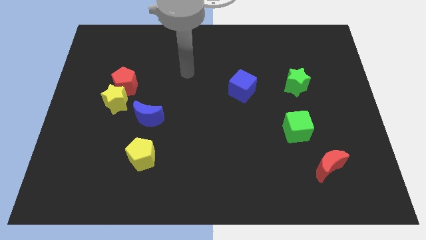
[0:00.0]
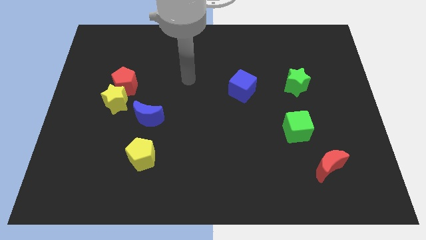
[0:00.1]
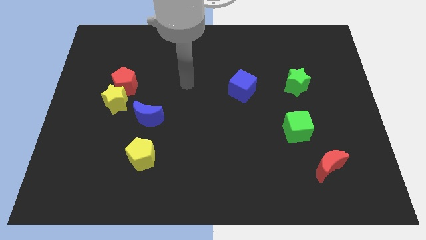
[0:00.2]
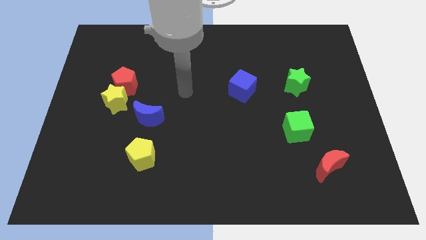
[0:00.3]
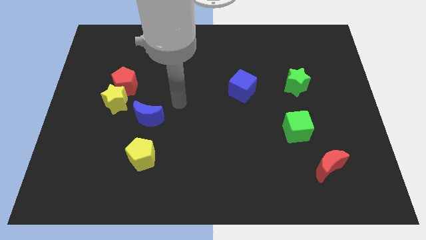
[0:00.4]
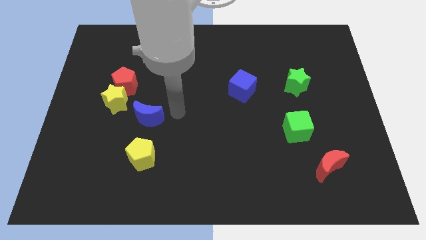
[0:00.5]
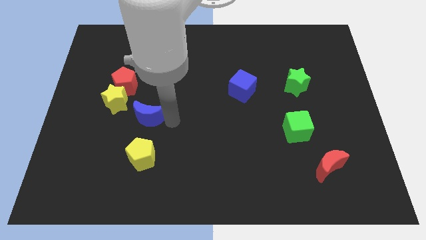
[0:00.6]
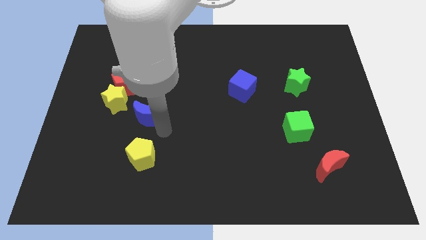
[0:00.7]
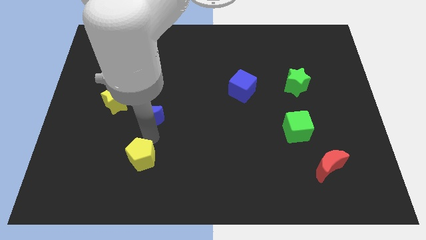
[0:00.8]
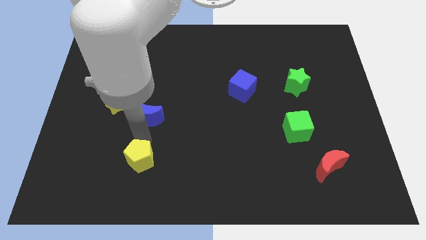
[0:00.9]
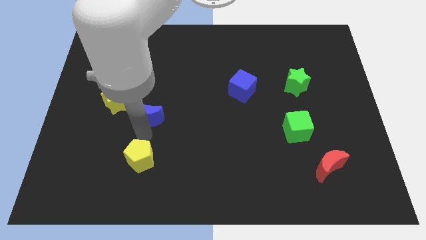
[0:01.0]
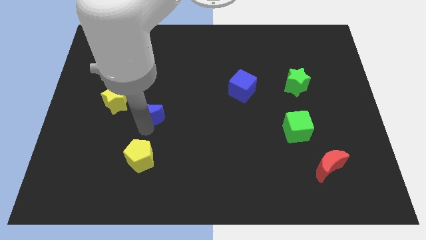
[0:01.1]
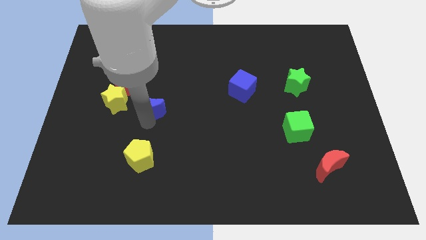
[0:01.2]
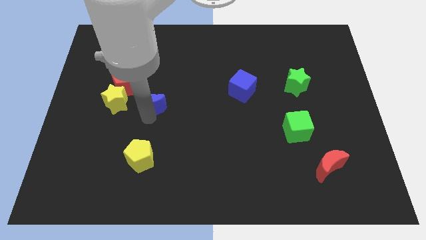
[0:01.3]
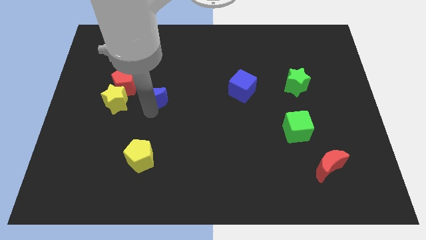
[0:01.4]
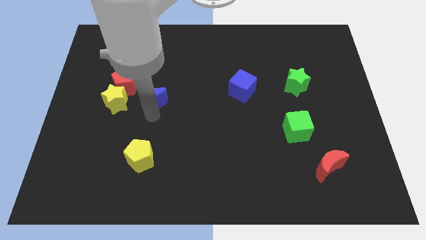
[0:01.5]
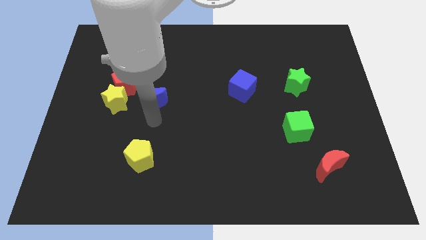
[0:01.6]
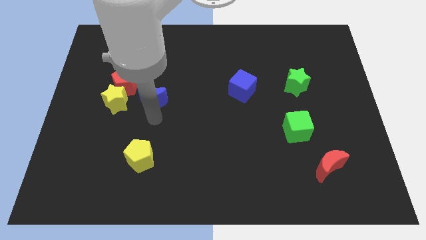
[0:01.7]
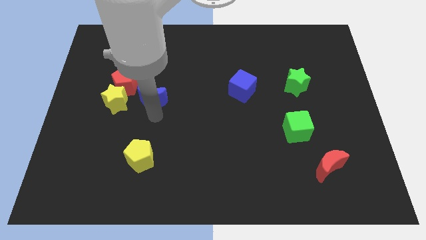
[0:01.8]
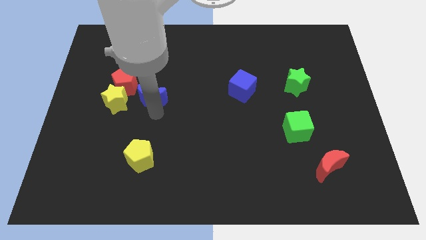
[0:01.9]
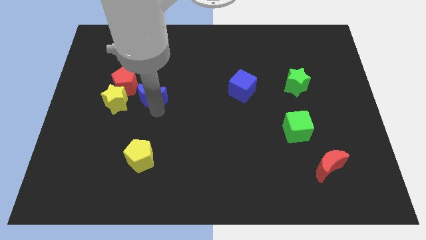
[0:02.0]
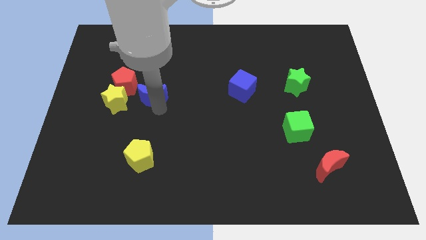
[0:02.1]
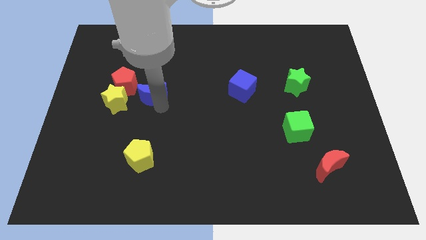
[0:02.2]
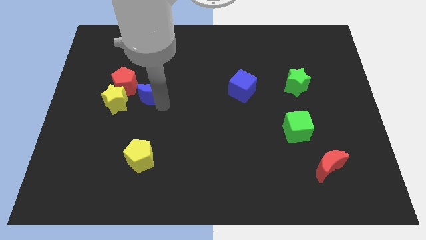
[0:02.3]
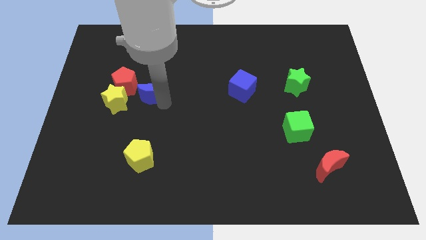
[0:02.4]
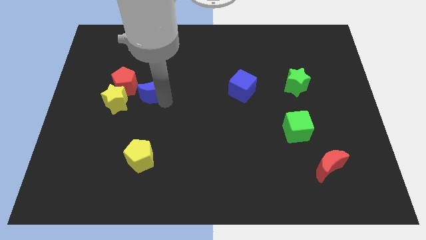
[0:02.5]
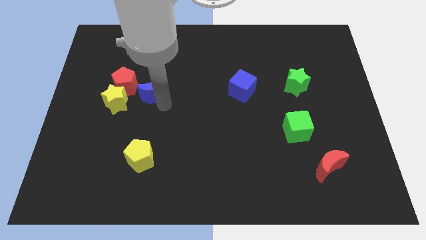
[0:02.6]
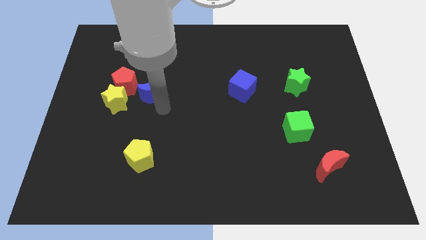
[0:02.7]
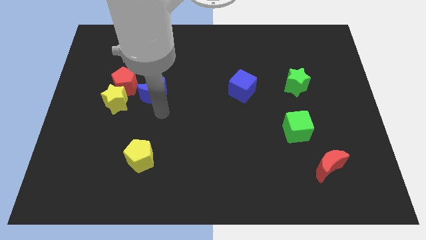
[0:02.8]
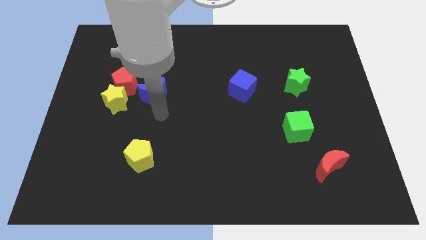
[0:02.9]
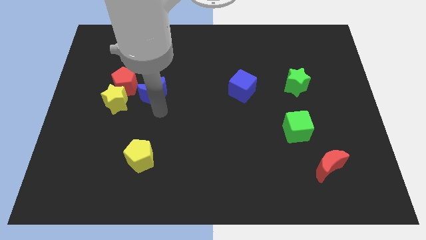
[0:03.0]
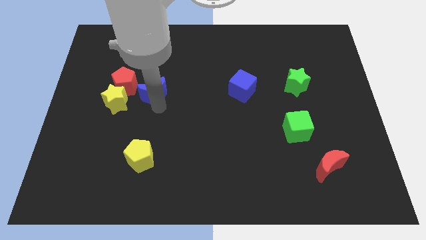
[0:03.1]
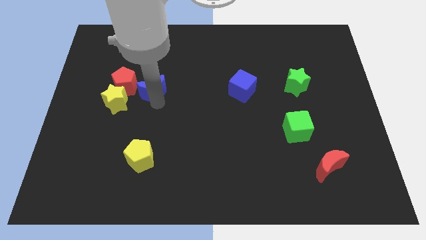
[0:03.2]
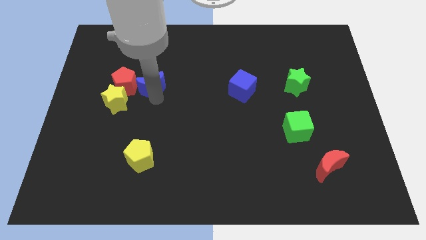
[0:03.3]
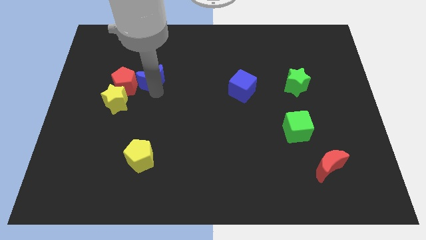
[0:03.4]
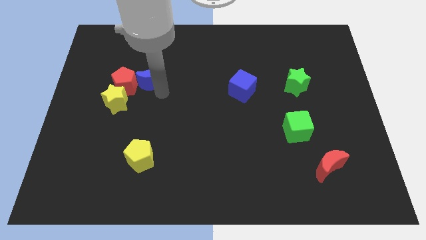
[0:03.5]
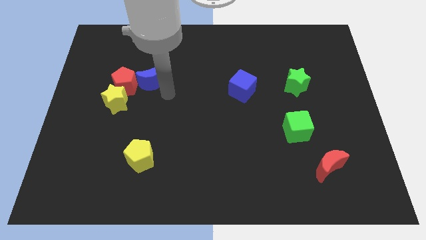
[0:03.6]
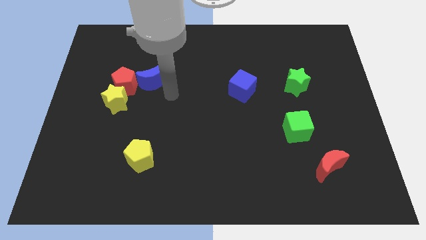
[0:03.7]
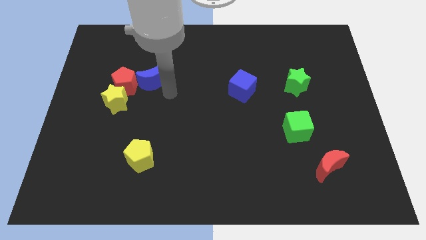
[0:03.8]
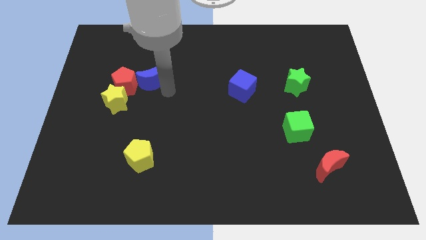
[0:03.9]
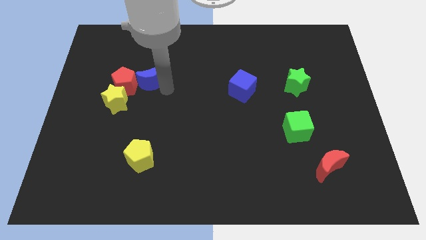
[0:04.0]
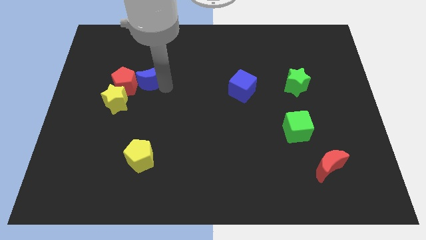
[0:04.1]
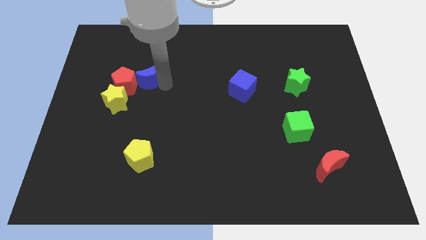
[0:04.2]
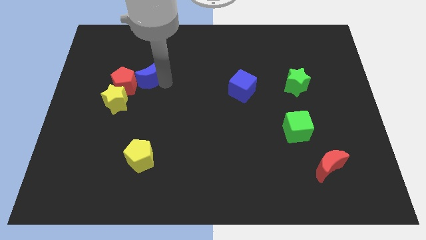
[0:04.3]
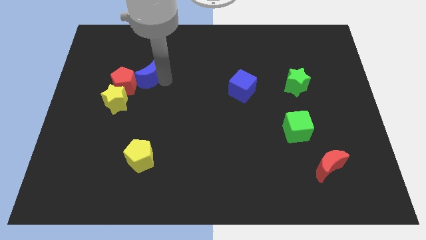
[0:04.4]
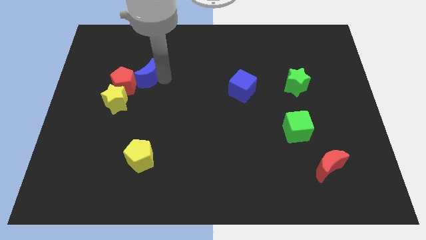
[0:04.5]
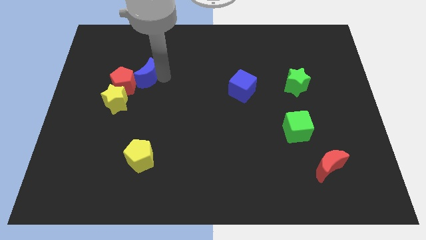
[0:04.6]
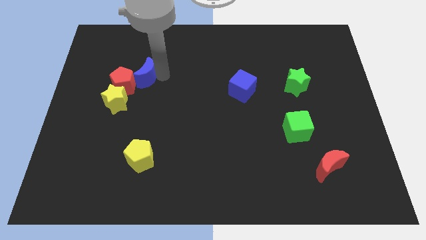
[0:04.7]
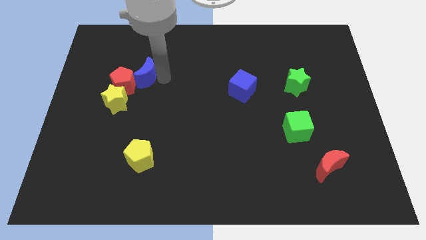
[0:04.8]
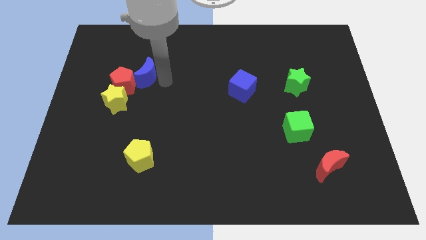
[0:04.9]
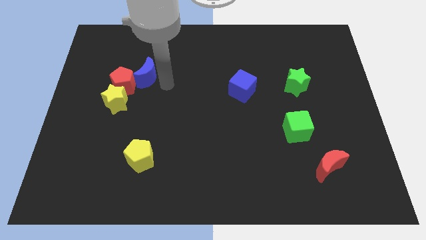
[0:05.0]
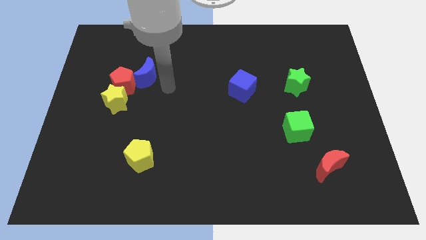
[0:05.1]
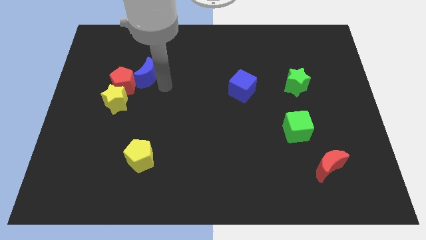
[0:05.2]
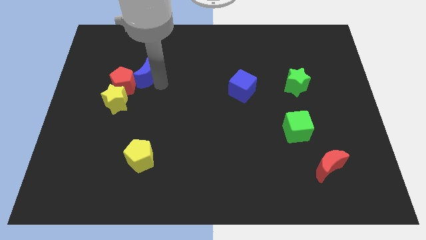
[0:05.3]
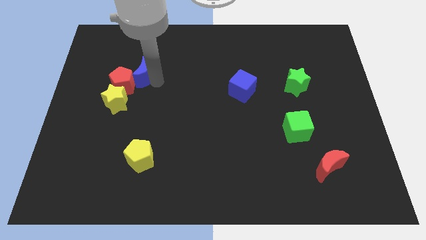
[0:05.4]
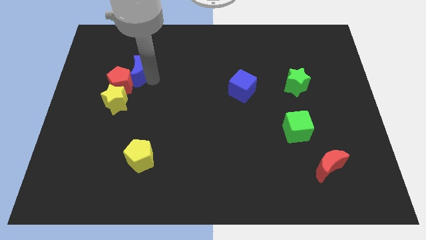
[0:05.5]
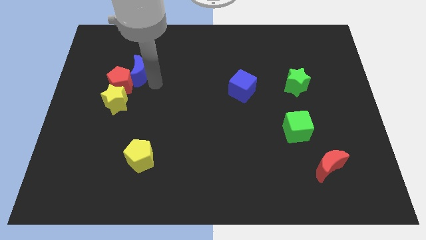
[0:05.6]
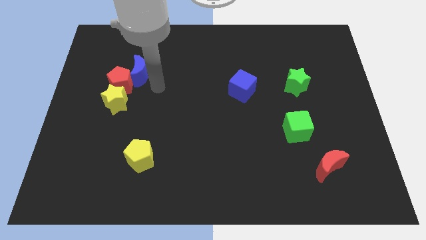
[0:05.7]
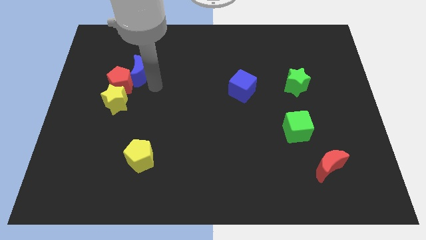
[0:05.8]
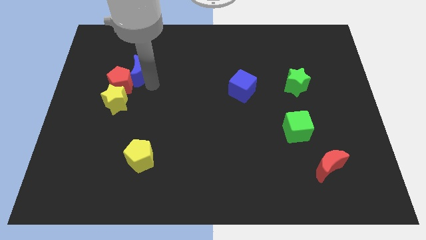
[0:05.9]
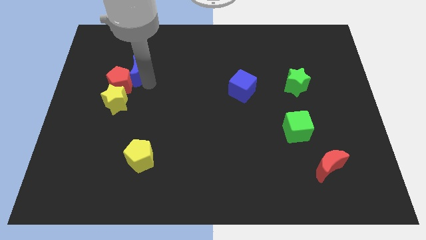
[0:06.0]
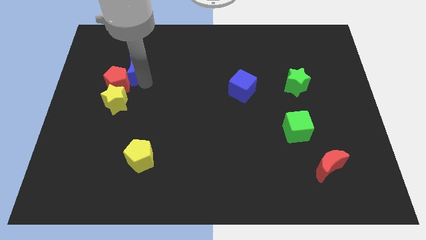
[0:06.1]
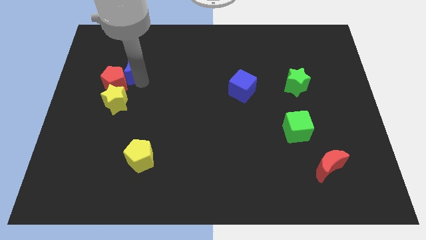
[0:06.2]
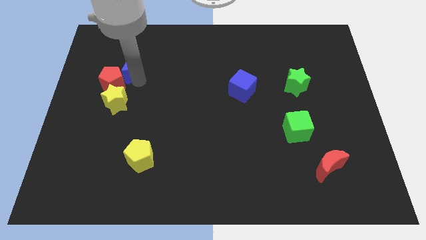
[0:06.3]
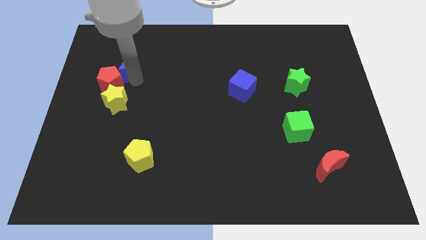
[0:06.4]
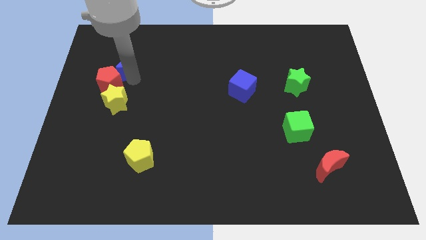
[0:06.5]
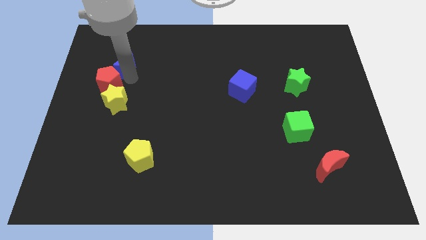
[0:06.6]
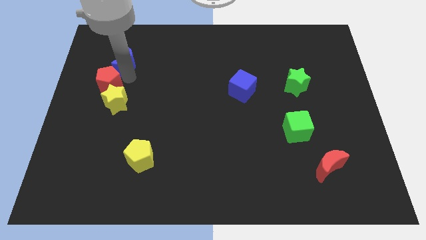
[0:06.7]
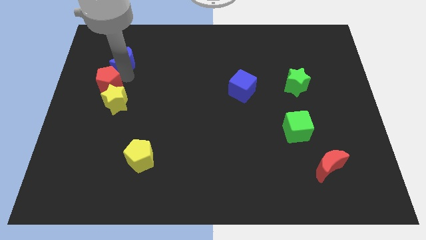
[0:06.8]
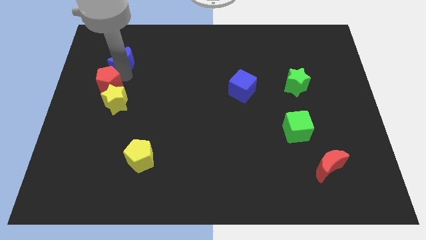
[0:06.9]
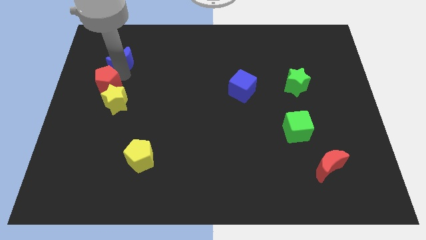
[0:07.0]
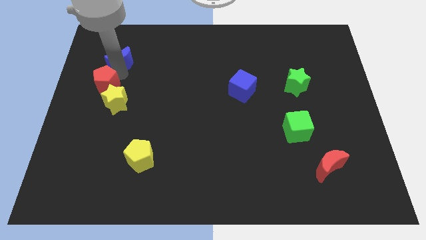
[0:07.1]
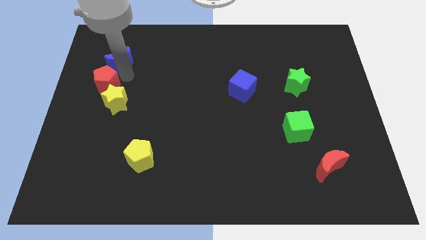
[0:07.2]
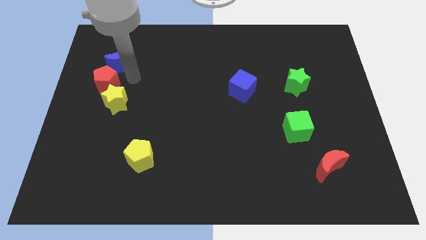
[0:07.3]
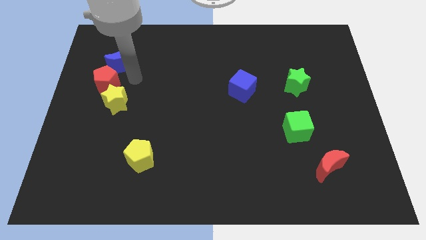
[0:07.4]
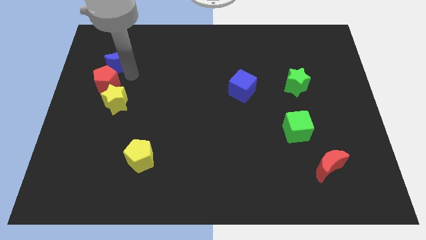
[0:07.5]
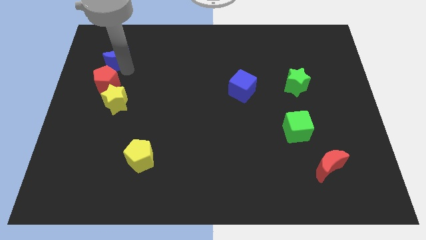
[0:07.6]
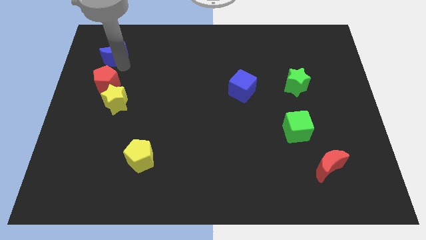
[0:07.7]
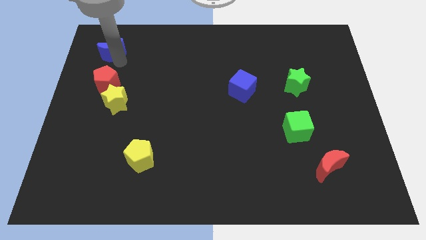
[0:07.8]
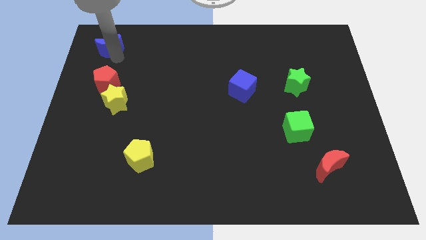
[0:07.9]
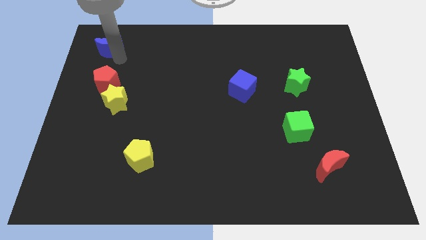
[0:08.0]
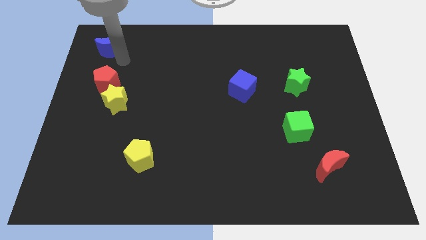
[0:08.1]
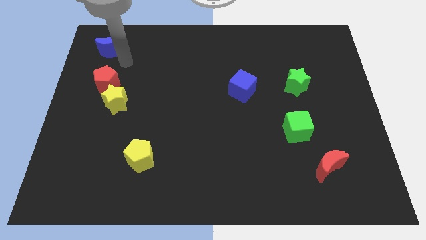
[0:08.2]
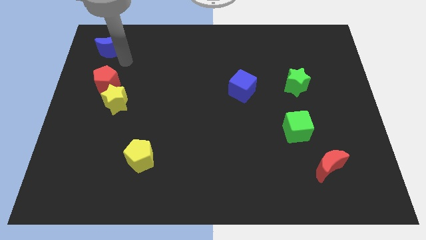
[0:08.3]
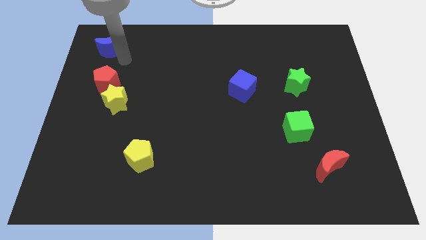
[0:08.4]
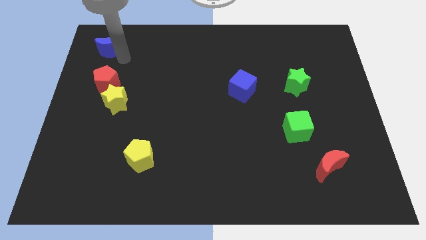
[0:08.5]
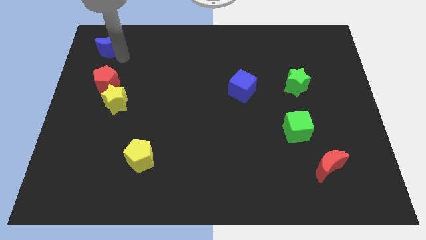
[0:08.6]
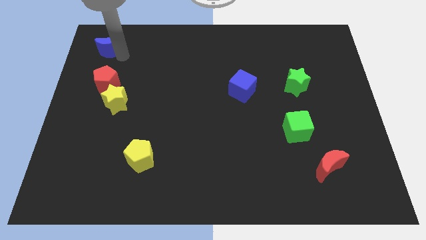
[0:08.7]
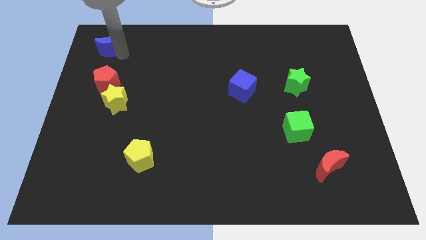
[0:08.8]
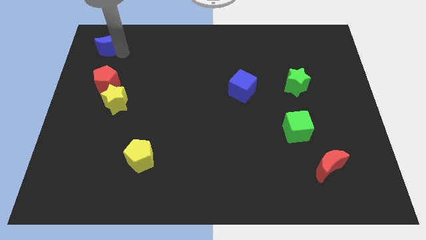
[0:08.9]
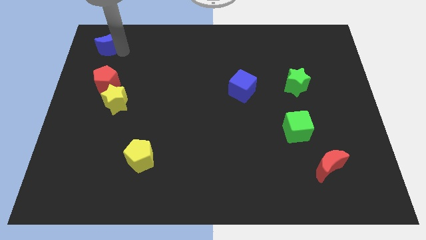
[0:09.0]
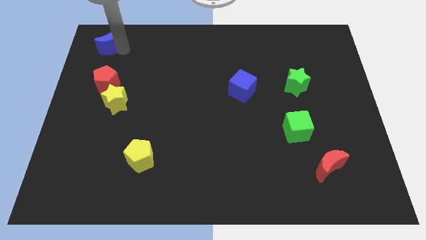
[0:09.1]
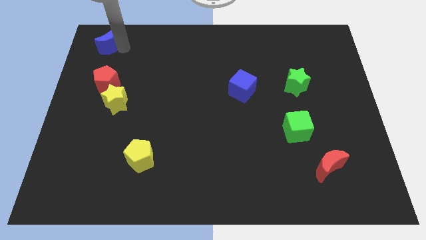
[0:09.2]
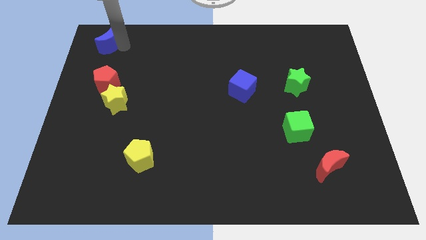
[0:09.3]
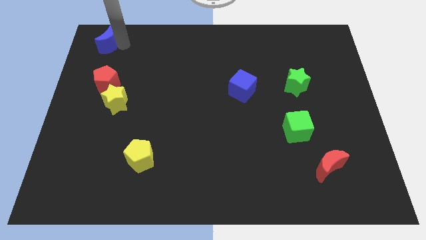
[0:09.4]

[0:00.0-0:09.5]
put the blue moon to the top left of the board
